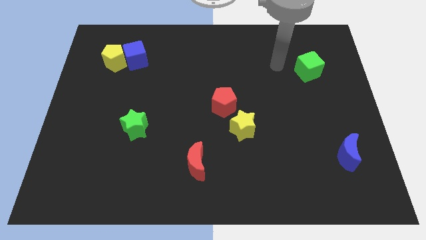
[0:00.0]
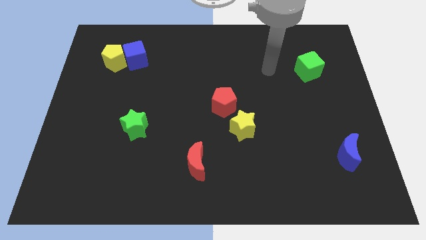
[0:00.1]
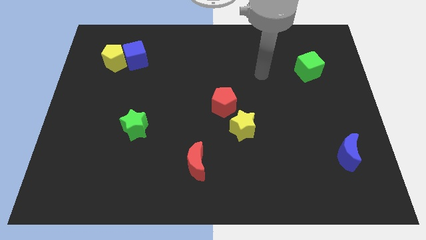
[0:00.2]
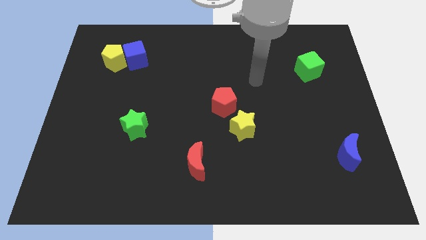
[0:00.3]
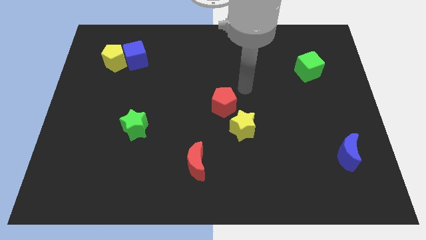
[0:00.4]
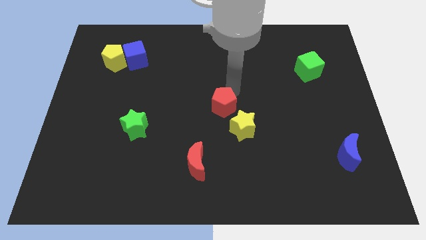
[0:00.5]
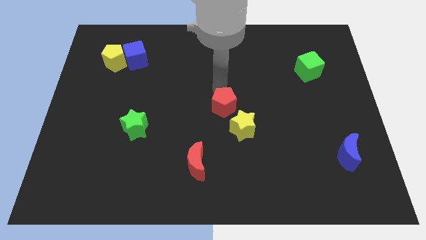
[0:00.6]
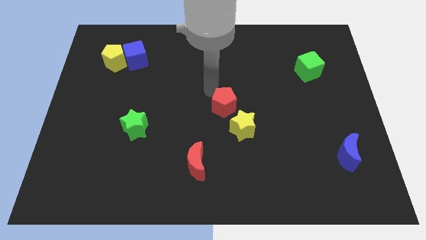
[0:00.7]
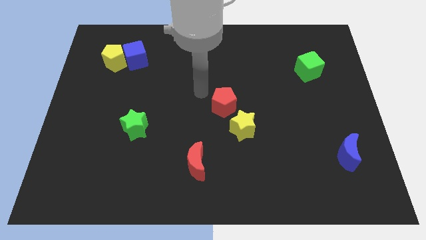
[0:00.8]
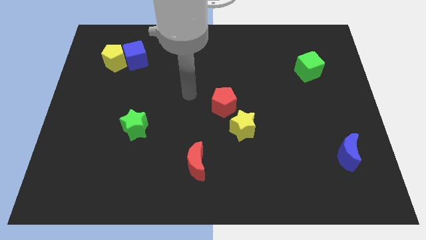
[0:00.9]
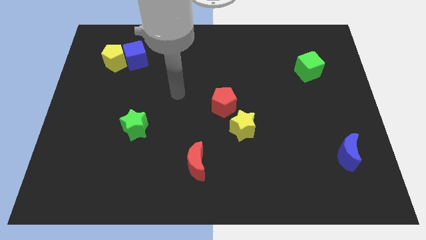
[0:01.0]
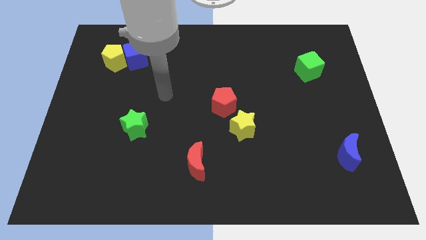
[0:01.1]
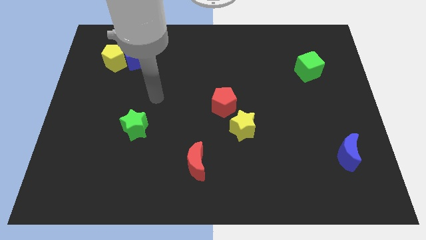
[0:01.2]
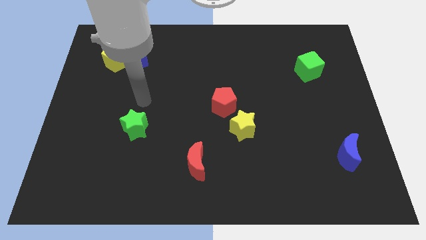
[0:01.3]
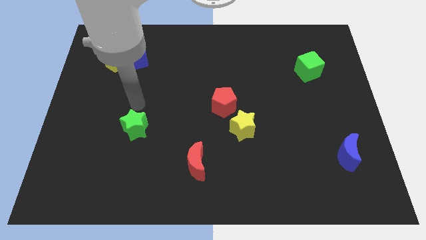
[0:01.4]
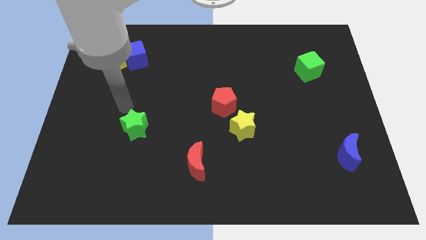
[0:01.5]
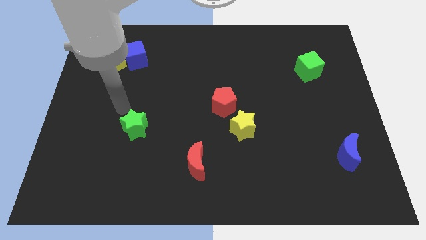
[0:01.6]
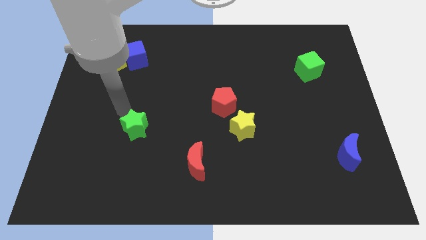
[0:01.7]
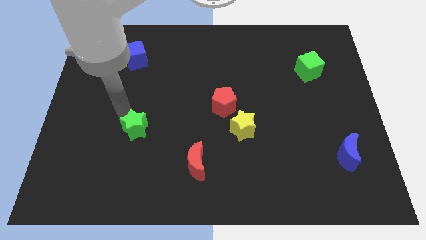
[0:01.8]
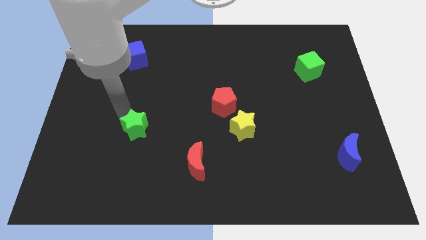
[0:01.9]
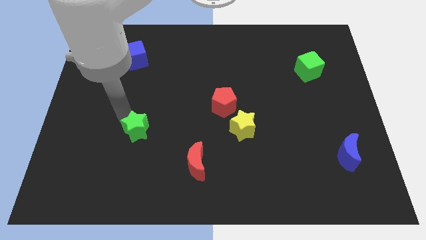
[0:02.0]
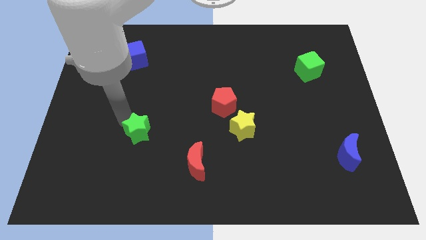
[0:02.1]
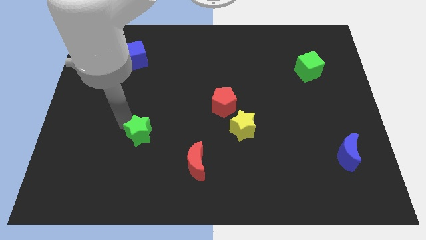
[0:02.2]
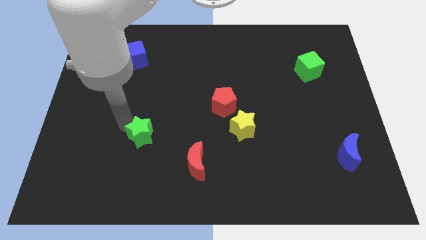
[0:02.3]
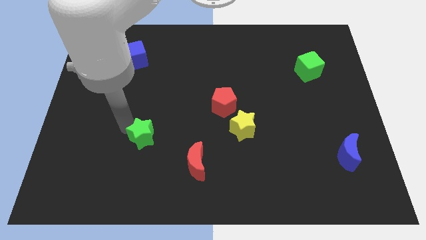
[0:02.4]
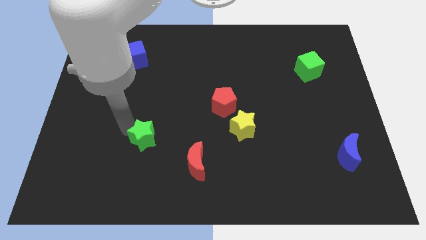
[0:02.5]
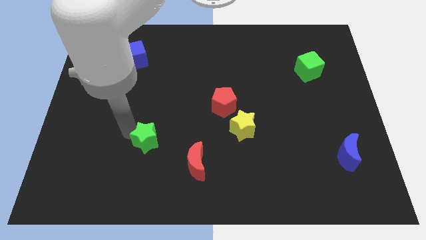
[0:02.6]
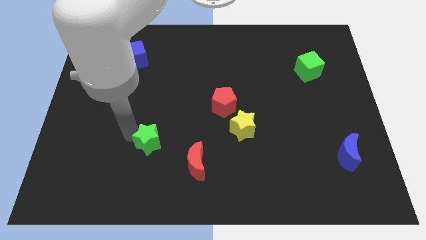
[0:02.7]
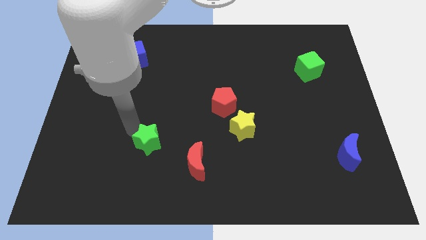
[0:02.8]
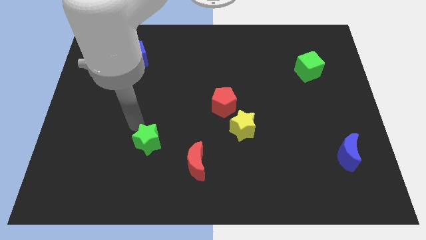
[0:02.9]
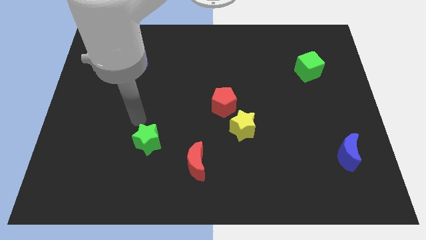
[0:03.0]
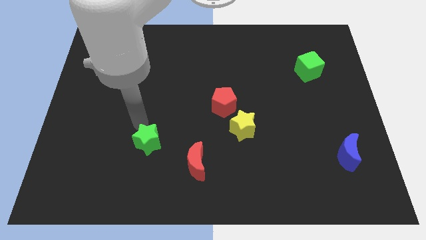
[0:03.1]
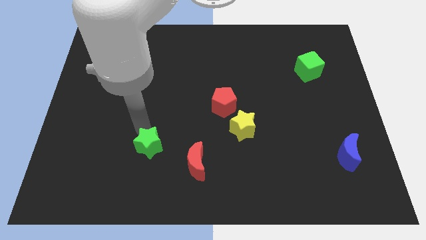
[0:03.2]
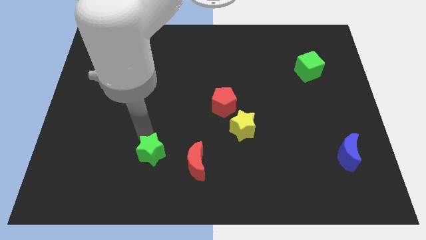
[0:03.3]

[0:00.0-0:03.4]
slide the green star somewhat downwards and to the right diagonally

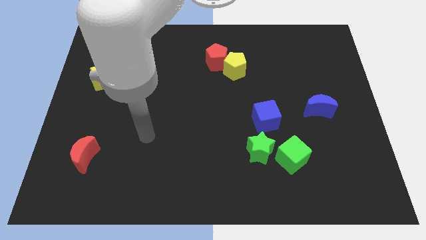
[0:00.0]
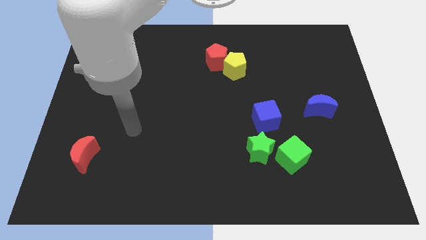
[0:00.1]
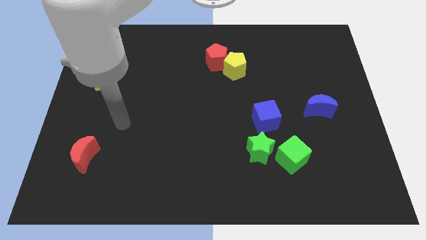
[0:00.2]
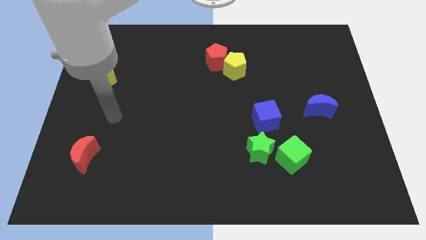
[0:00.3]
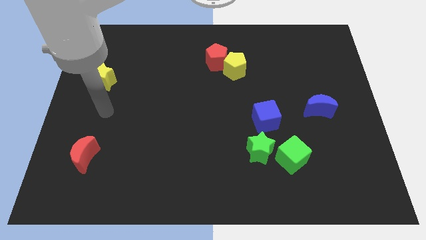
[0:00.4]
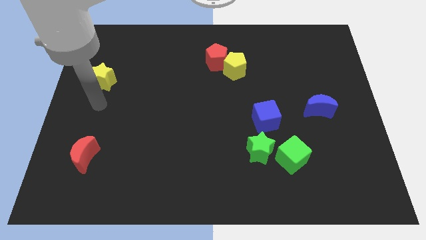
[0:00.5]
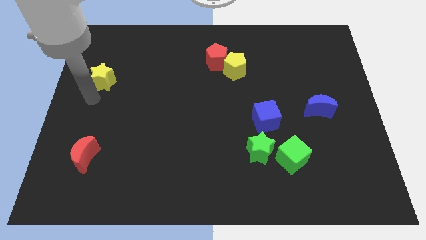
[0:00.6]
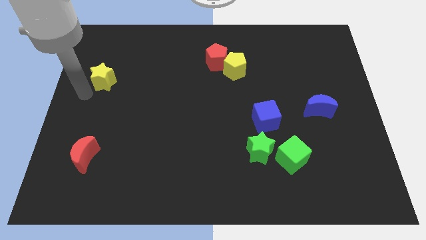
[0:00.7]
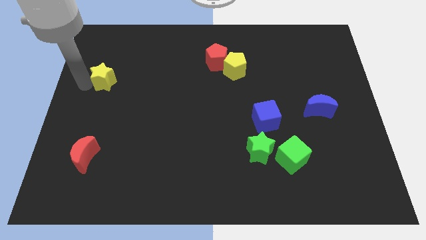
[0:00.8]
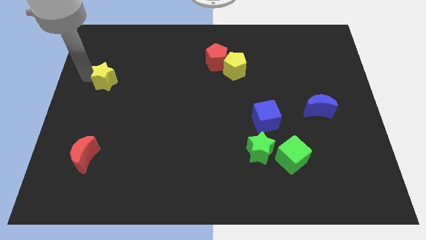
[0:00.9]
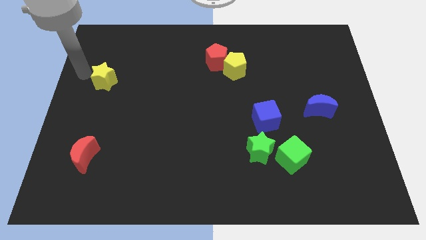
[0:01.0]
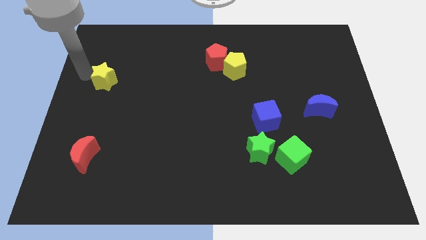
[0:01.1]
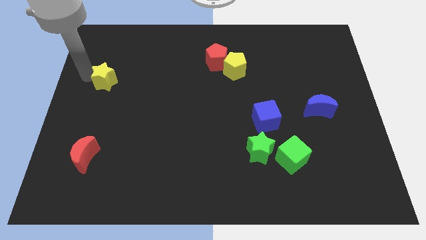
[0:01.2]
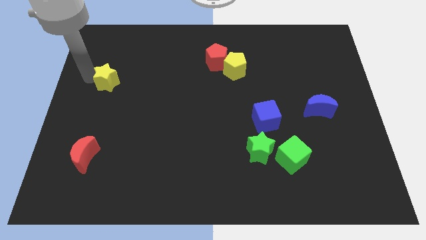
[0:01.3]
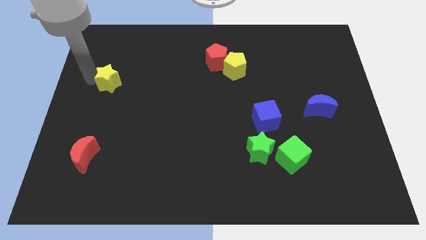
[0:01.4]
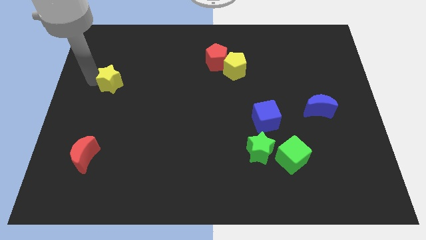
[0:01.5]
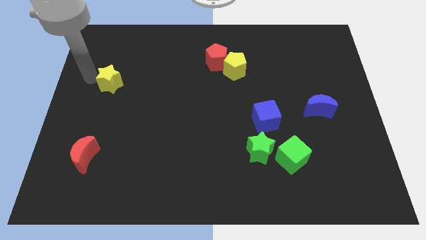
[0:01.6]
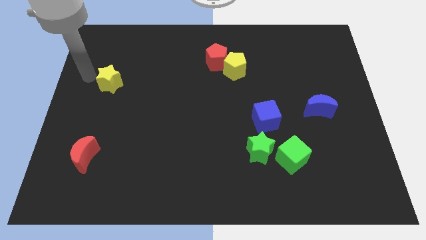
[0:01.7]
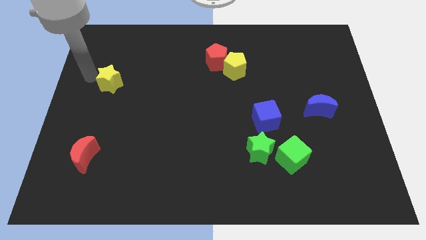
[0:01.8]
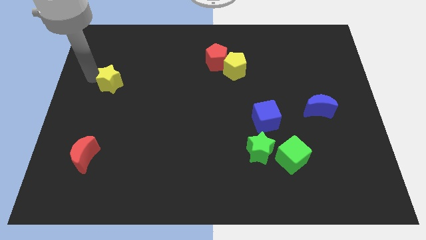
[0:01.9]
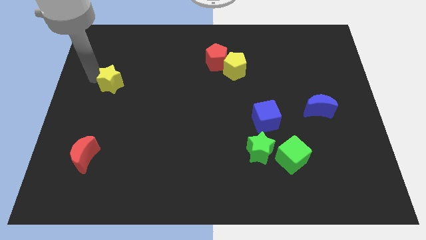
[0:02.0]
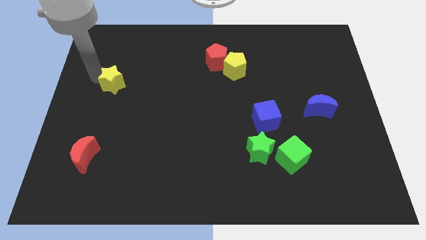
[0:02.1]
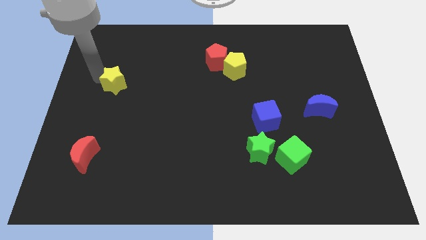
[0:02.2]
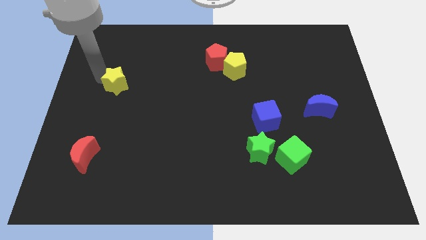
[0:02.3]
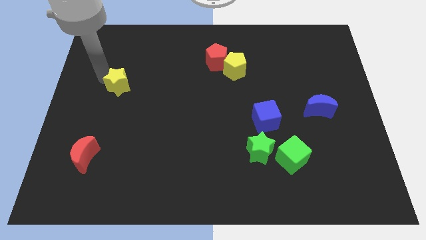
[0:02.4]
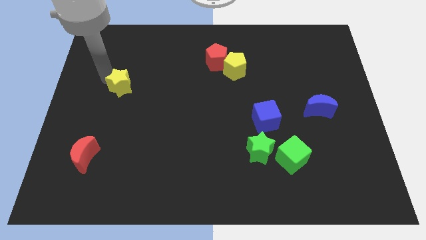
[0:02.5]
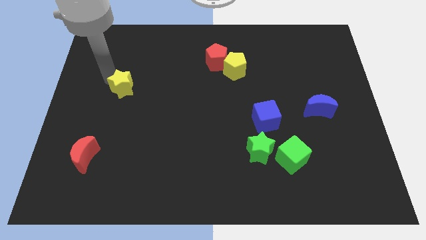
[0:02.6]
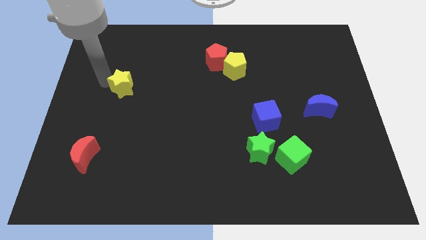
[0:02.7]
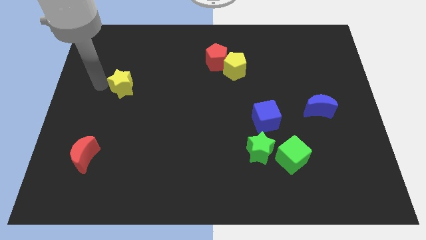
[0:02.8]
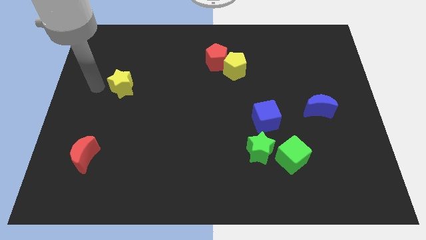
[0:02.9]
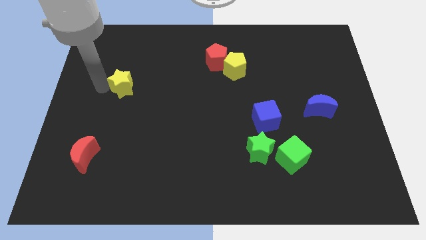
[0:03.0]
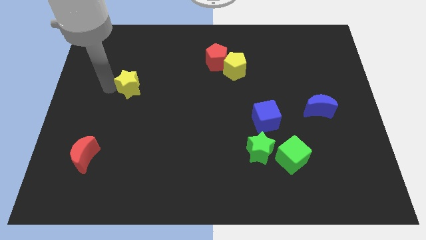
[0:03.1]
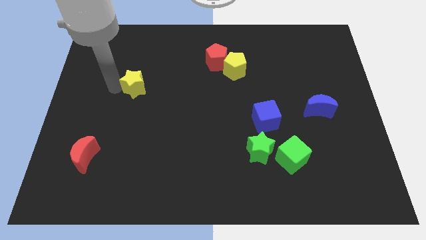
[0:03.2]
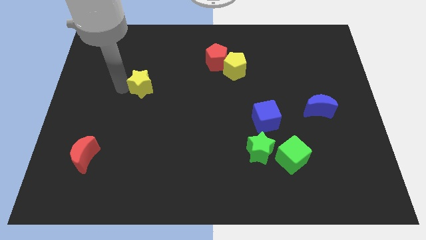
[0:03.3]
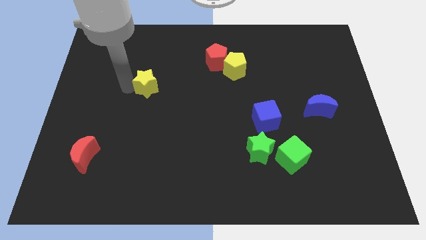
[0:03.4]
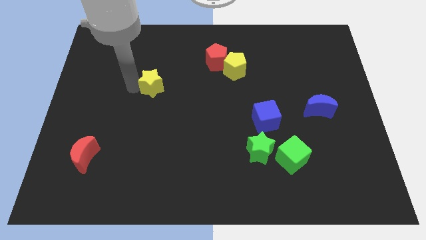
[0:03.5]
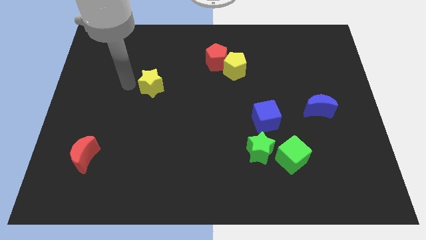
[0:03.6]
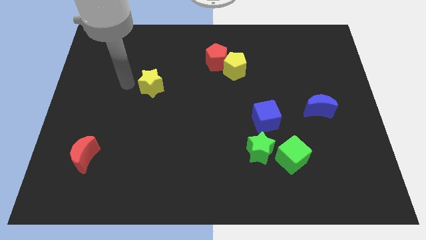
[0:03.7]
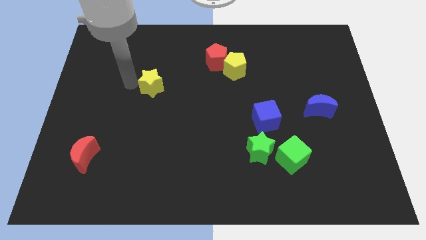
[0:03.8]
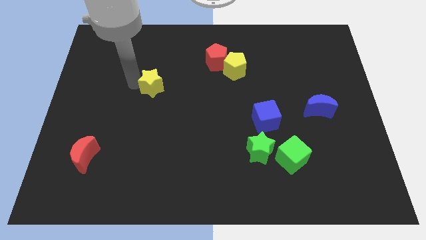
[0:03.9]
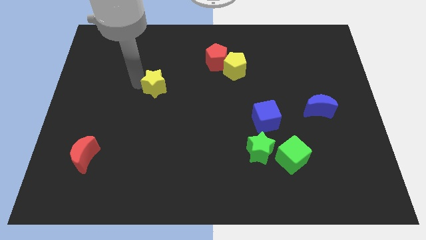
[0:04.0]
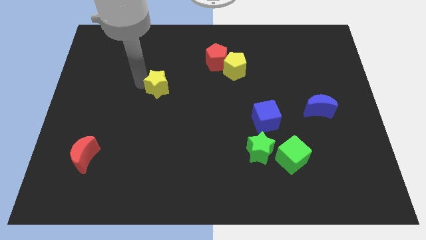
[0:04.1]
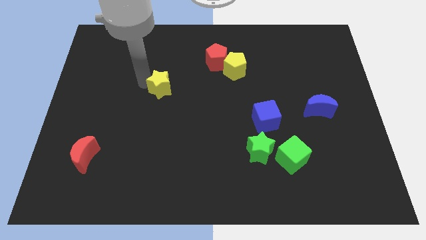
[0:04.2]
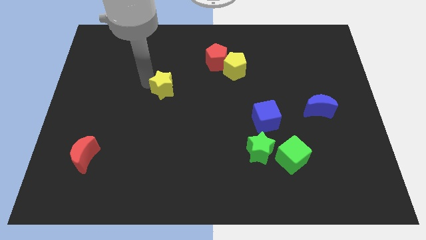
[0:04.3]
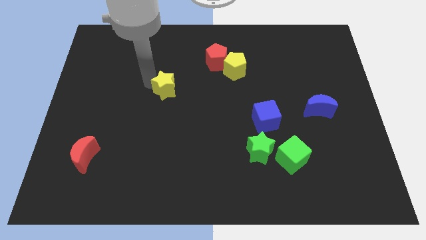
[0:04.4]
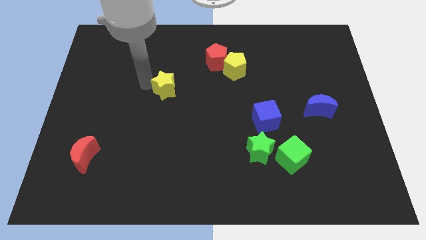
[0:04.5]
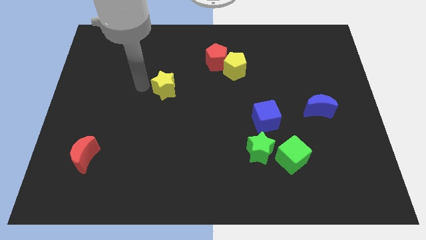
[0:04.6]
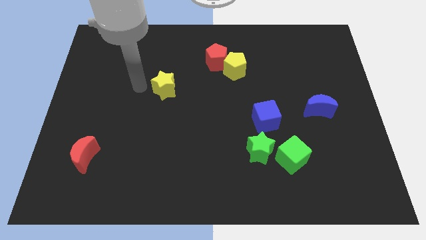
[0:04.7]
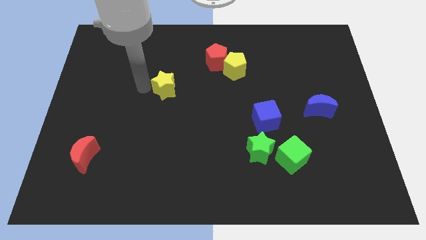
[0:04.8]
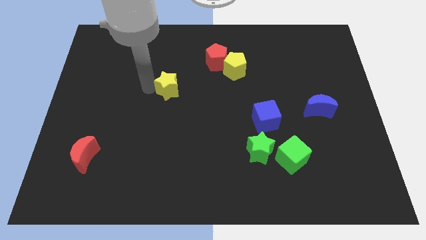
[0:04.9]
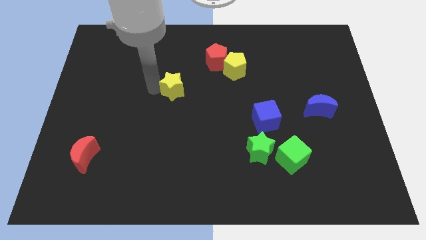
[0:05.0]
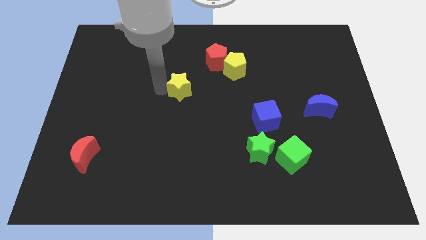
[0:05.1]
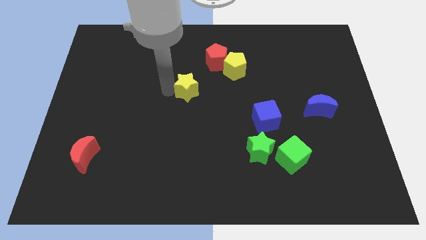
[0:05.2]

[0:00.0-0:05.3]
move the yellow star right
